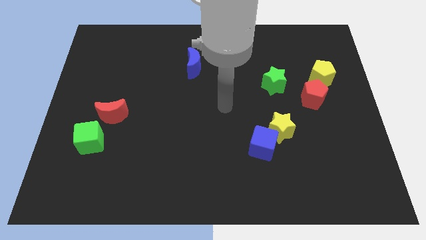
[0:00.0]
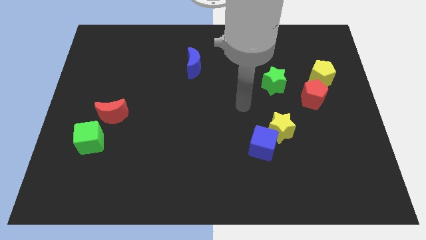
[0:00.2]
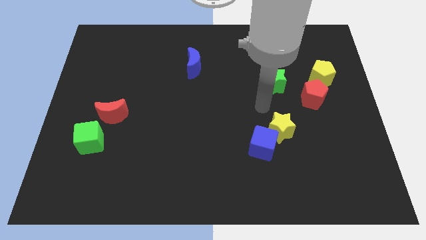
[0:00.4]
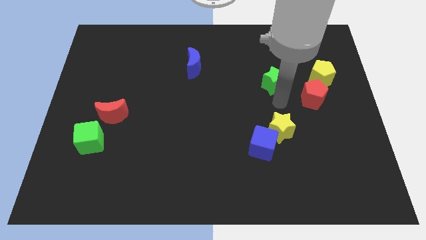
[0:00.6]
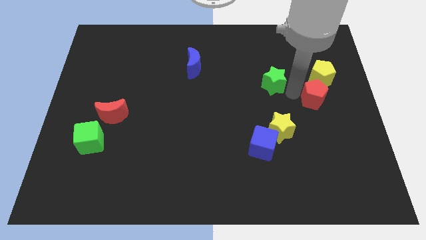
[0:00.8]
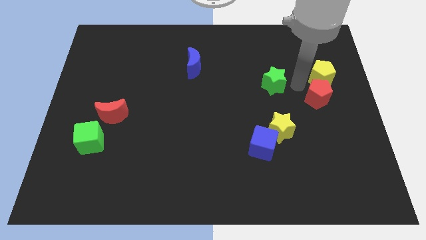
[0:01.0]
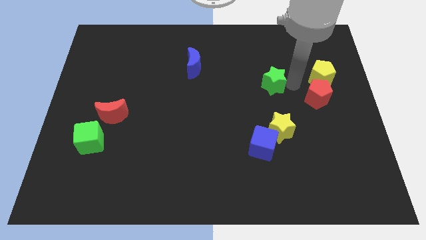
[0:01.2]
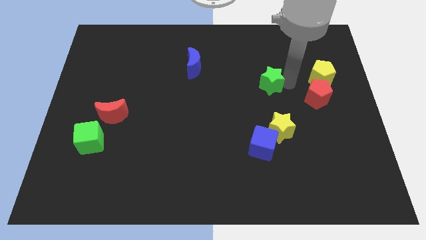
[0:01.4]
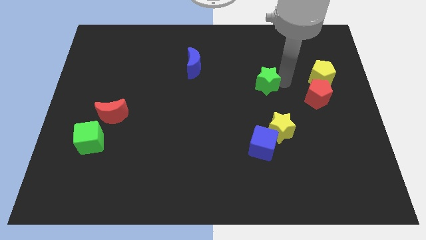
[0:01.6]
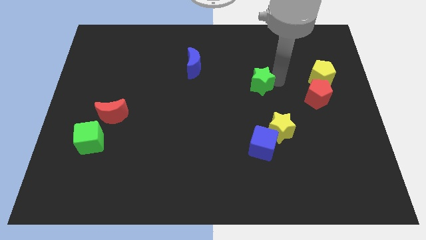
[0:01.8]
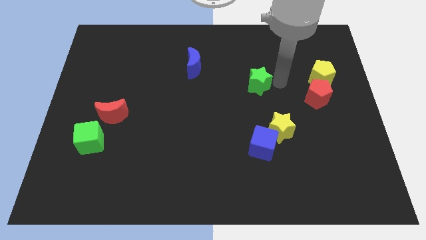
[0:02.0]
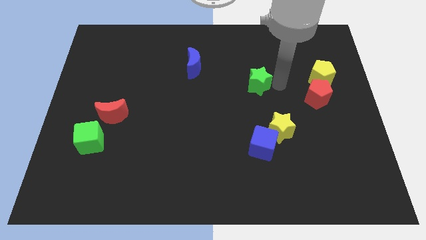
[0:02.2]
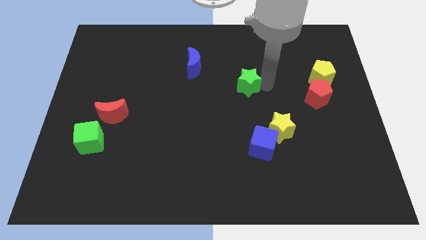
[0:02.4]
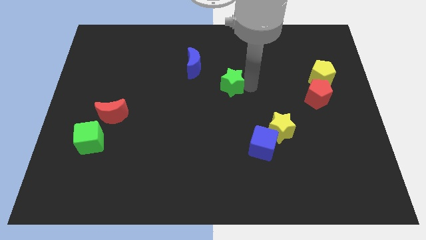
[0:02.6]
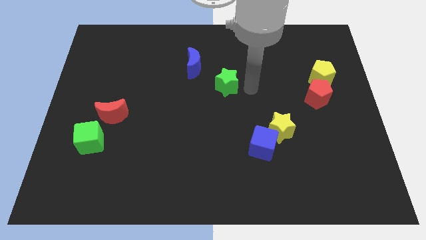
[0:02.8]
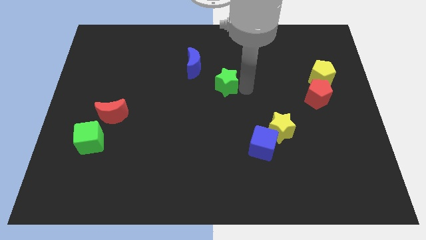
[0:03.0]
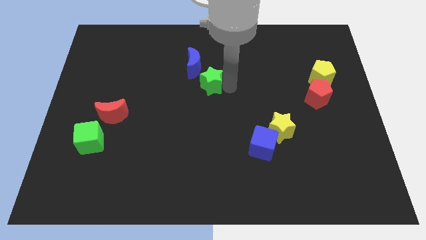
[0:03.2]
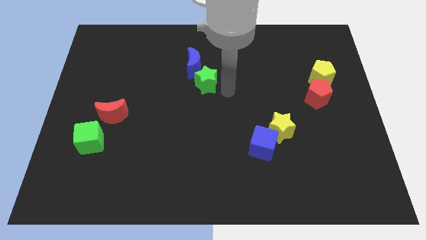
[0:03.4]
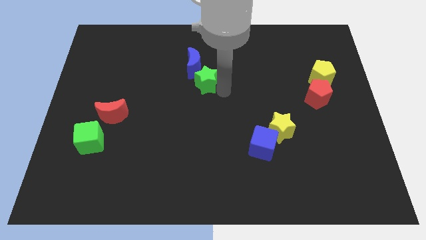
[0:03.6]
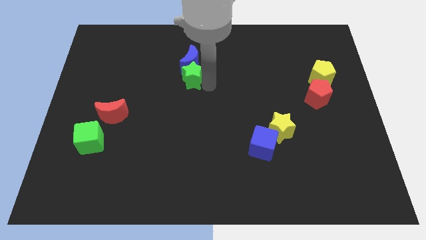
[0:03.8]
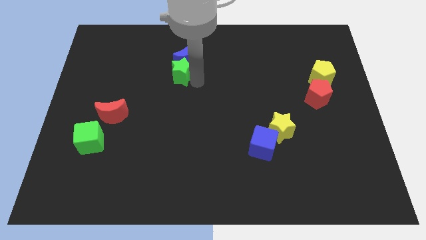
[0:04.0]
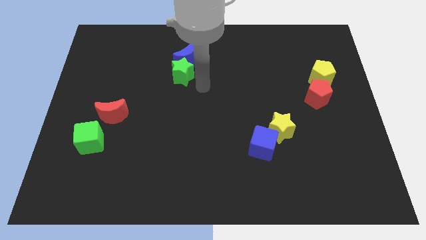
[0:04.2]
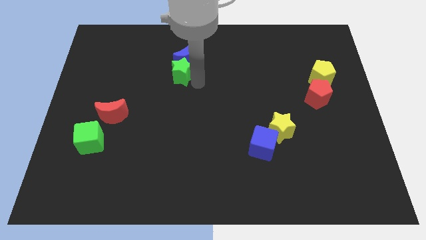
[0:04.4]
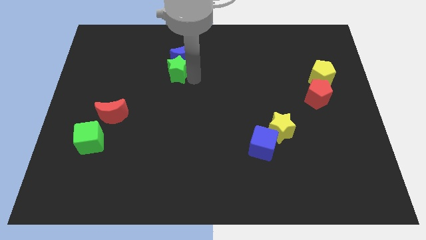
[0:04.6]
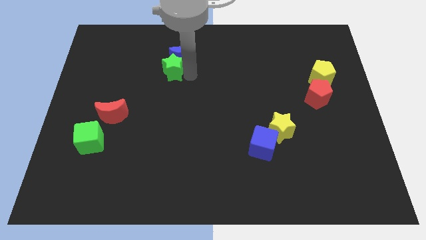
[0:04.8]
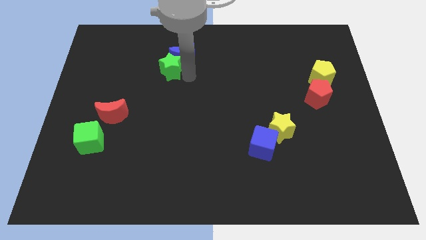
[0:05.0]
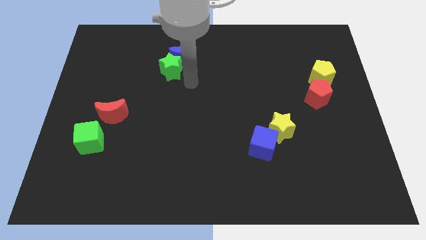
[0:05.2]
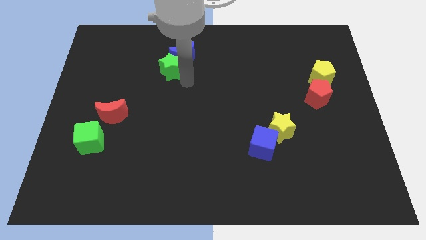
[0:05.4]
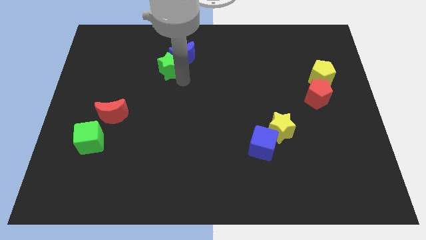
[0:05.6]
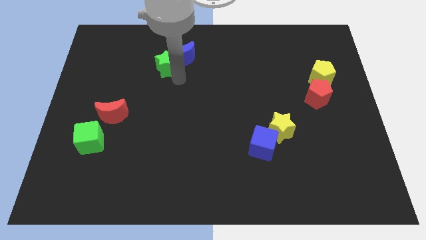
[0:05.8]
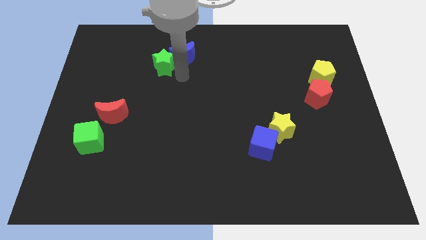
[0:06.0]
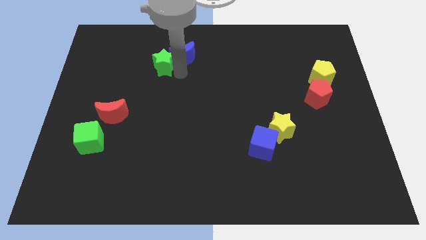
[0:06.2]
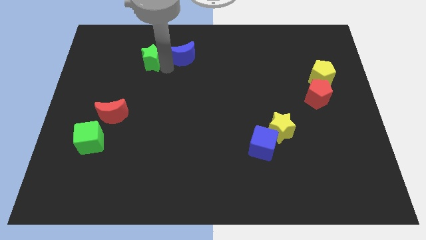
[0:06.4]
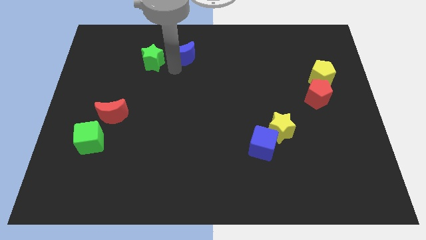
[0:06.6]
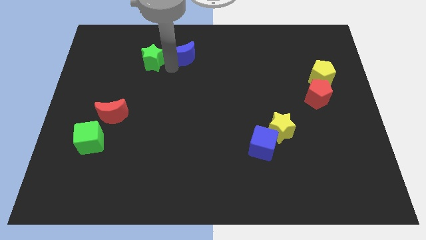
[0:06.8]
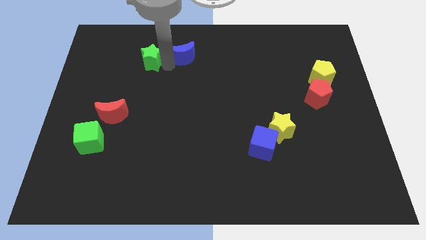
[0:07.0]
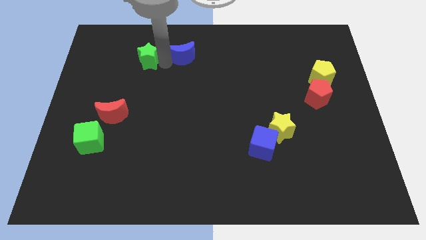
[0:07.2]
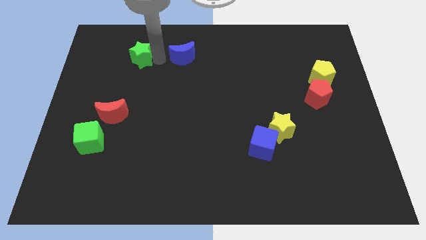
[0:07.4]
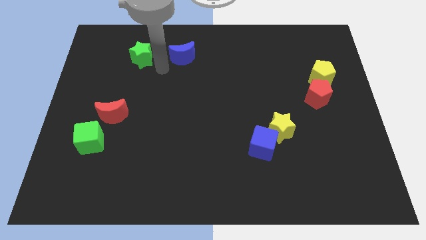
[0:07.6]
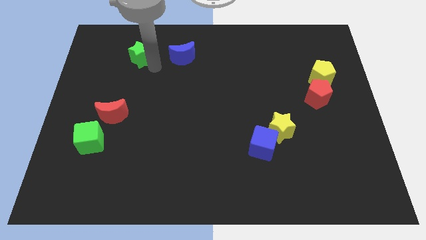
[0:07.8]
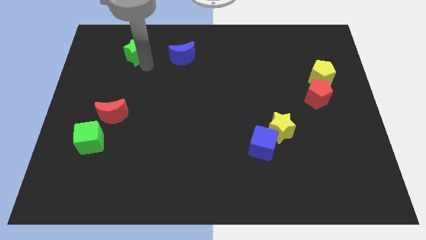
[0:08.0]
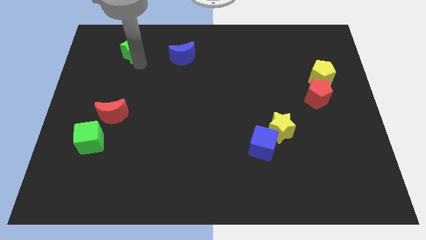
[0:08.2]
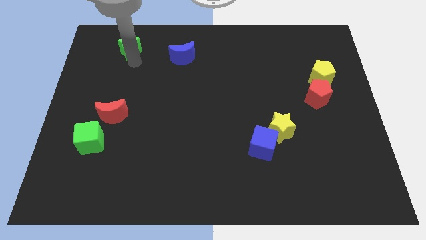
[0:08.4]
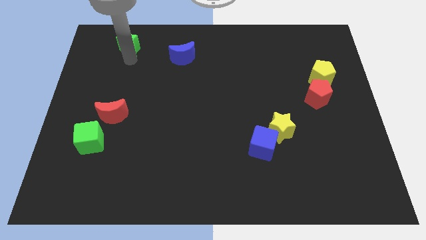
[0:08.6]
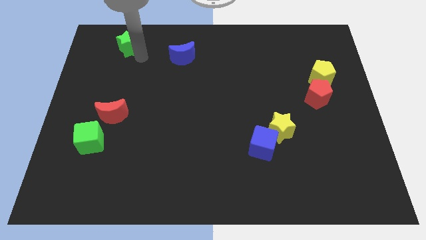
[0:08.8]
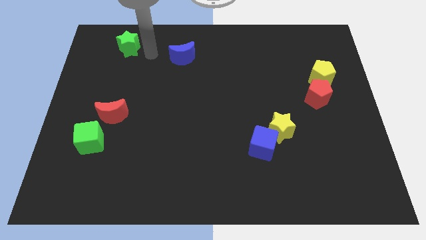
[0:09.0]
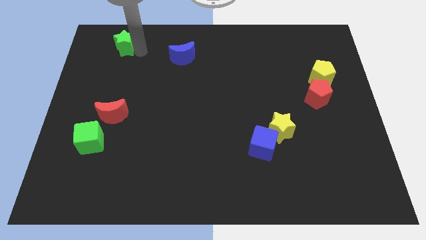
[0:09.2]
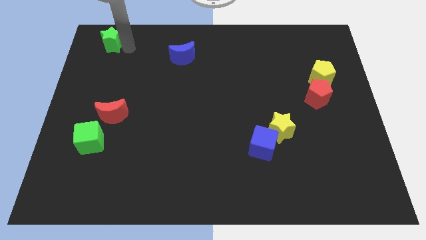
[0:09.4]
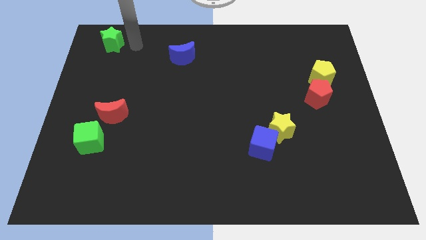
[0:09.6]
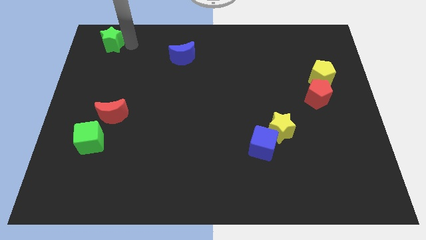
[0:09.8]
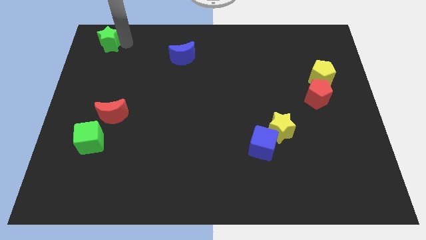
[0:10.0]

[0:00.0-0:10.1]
move the green star to the top left corner

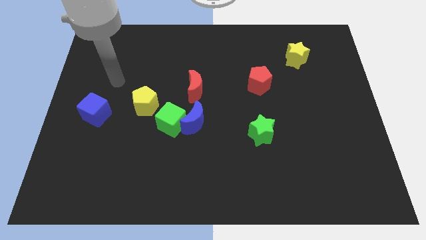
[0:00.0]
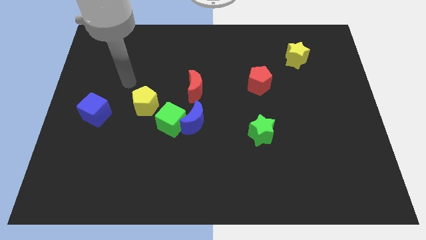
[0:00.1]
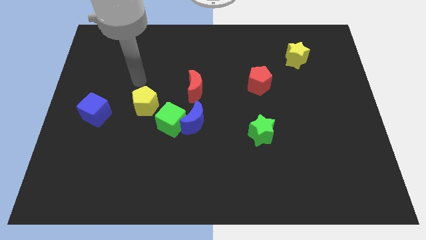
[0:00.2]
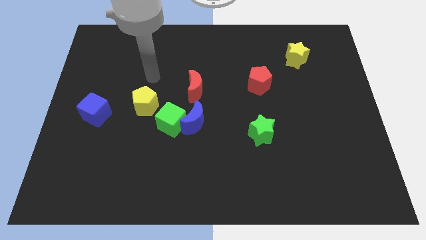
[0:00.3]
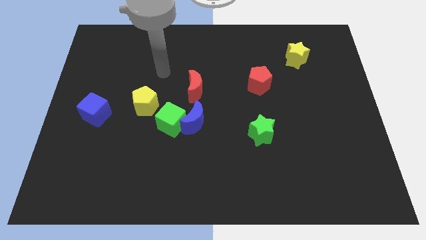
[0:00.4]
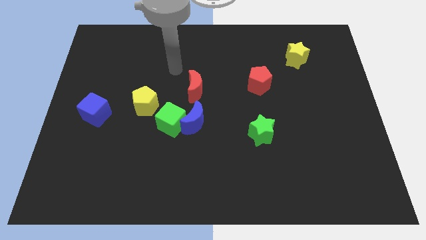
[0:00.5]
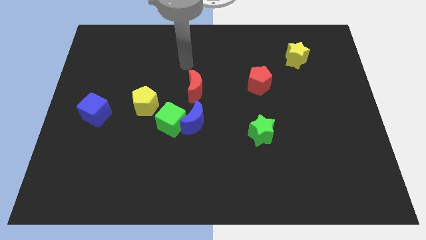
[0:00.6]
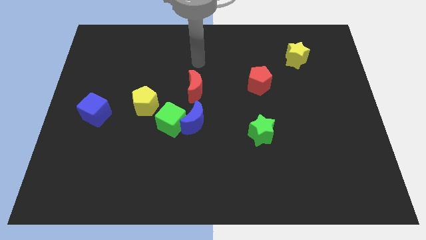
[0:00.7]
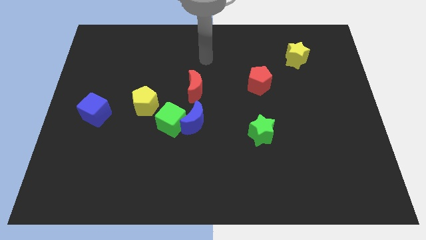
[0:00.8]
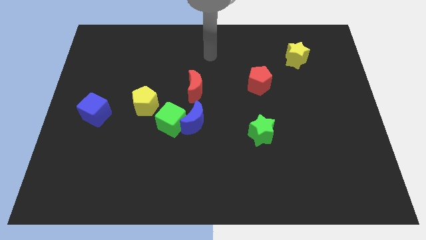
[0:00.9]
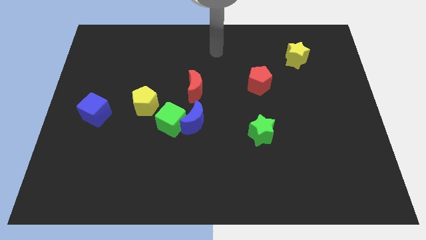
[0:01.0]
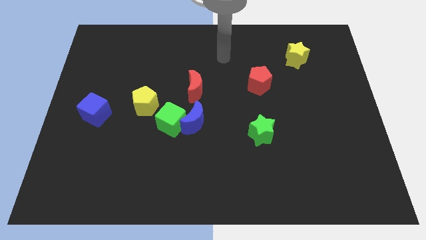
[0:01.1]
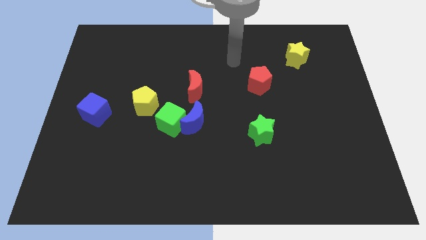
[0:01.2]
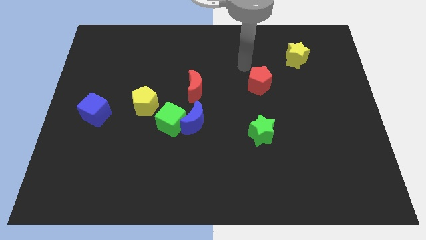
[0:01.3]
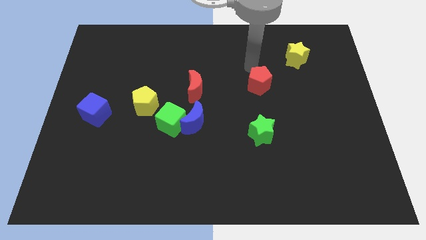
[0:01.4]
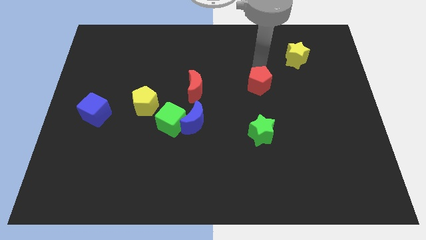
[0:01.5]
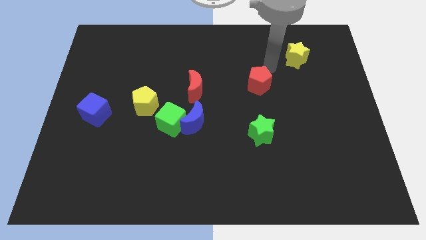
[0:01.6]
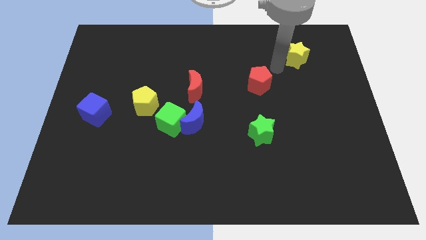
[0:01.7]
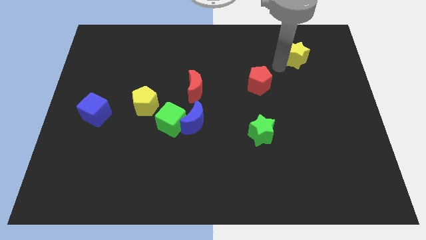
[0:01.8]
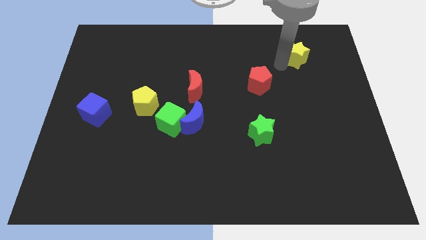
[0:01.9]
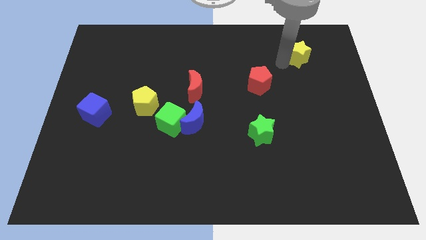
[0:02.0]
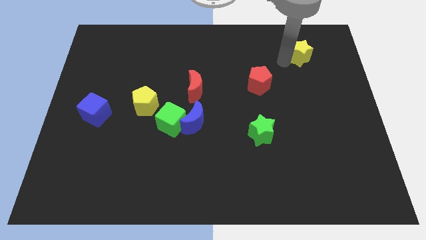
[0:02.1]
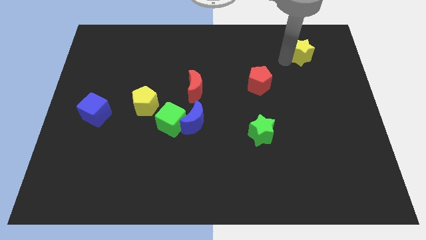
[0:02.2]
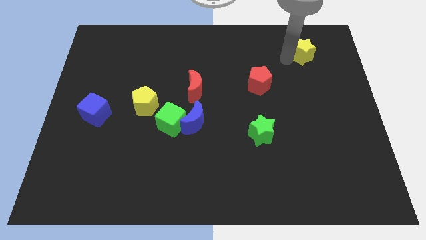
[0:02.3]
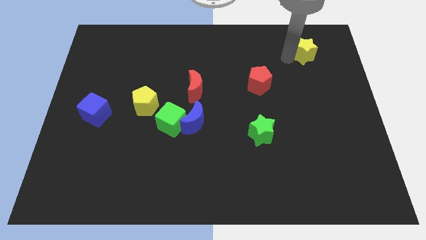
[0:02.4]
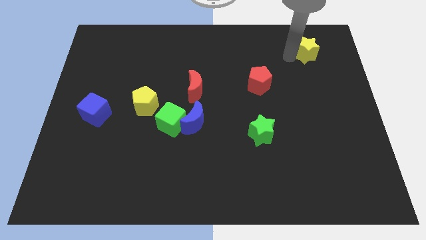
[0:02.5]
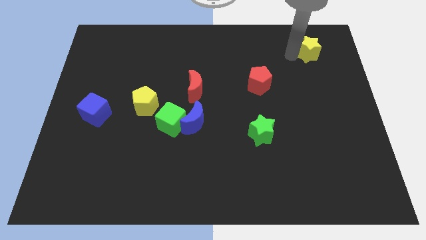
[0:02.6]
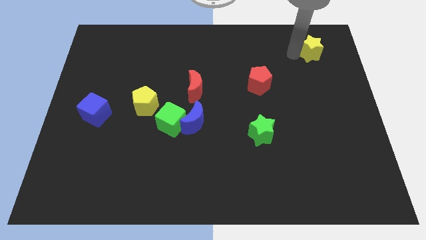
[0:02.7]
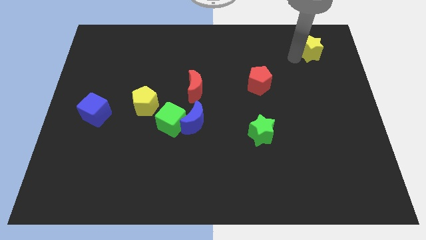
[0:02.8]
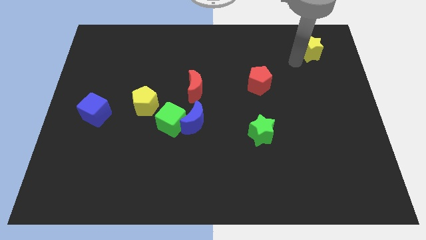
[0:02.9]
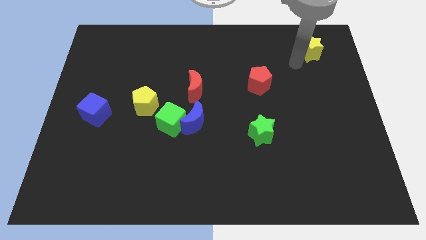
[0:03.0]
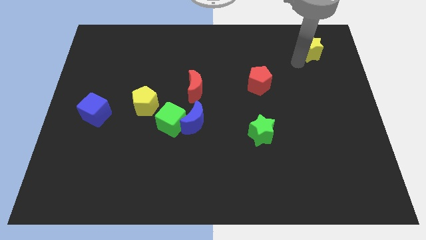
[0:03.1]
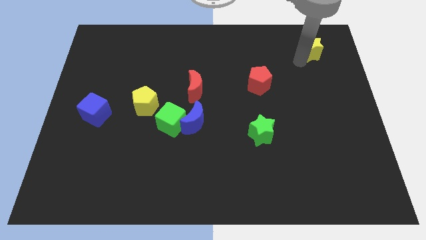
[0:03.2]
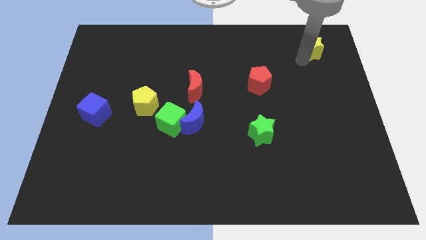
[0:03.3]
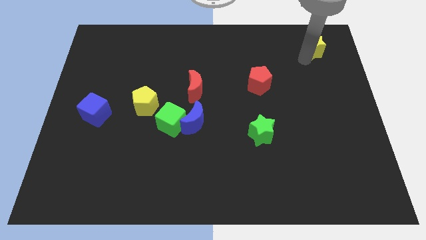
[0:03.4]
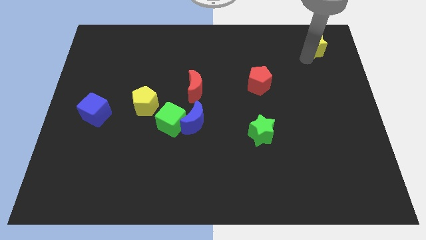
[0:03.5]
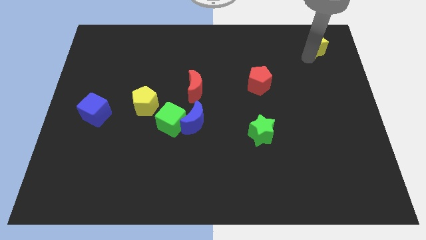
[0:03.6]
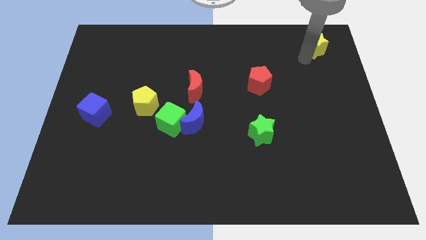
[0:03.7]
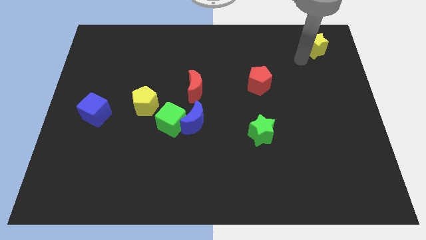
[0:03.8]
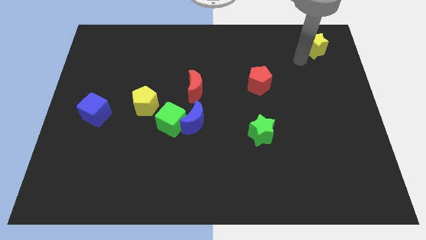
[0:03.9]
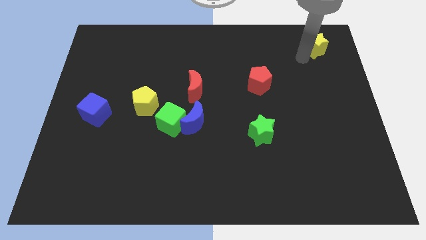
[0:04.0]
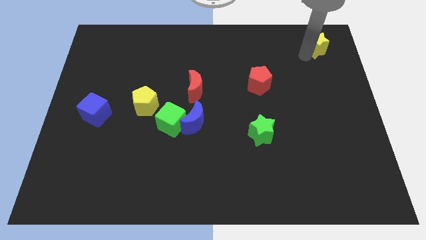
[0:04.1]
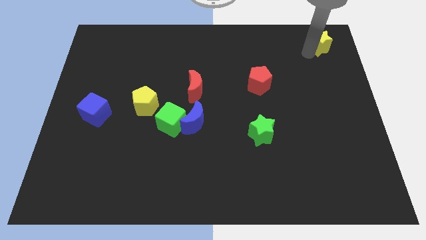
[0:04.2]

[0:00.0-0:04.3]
move the yellow star to the top right corner
